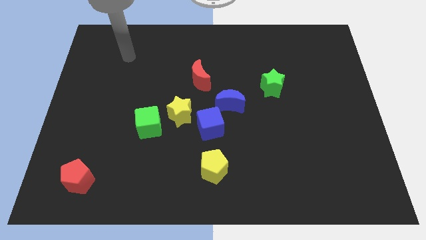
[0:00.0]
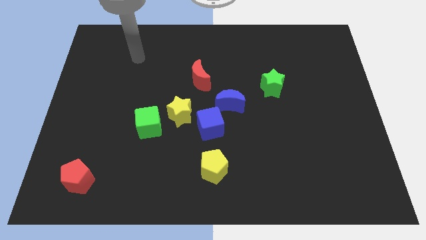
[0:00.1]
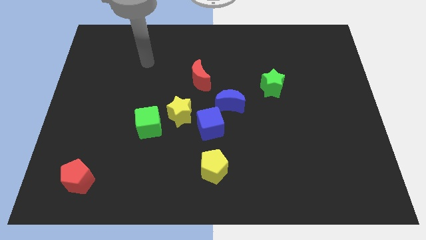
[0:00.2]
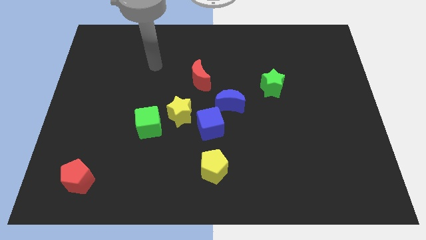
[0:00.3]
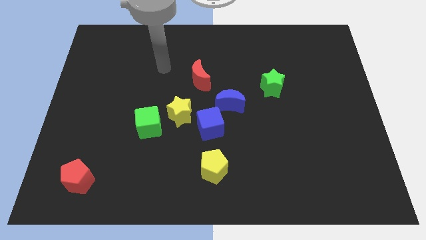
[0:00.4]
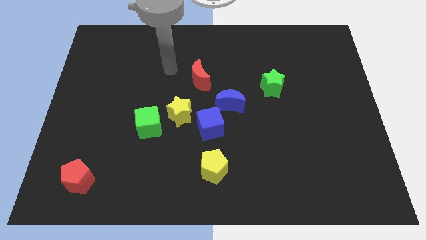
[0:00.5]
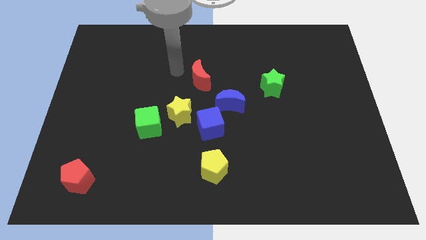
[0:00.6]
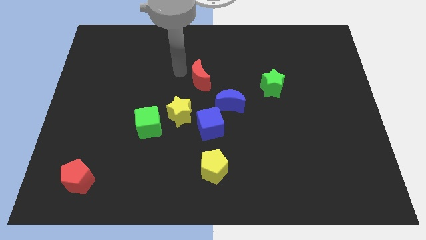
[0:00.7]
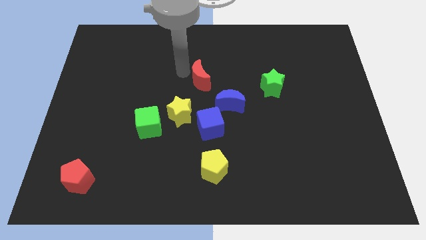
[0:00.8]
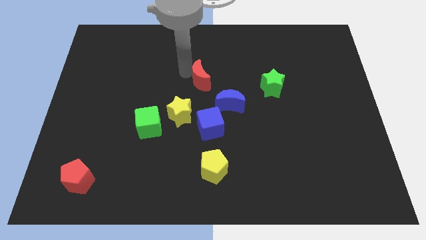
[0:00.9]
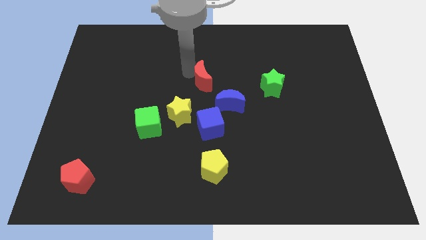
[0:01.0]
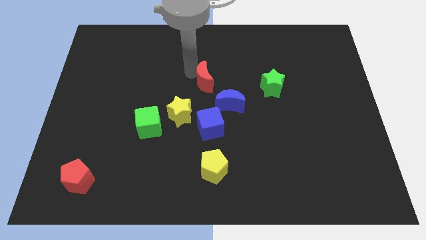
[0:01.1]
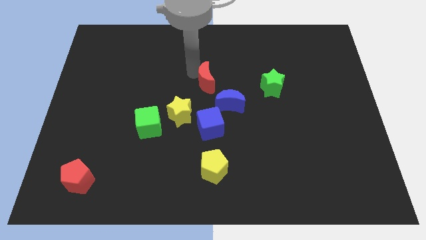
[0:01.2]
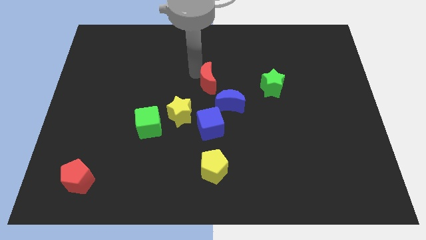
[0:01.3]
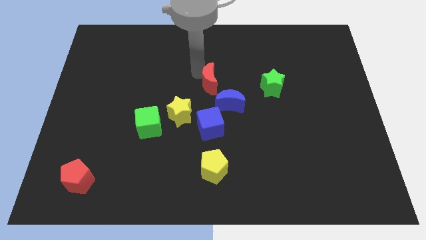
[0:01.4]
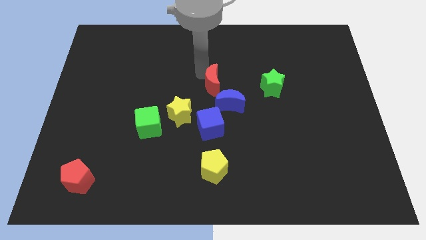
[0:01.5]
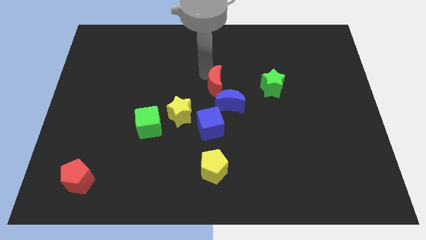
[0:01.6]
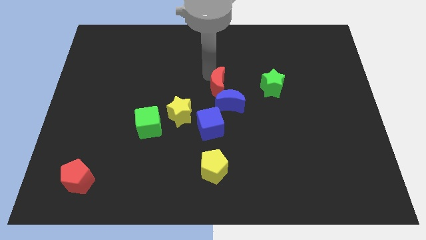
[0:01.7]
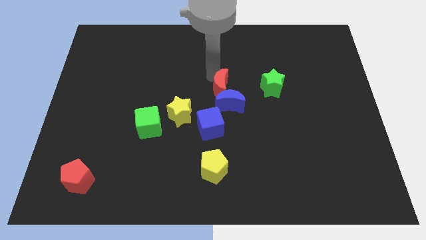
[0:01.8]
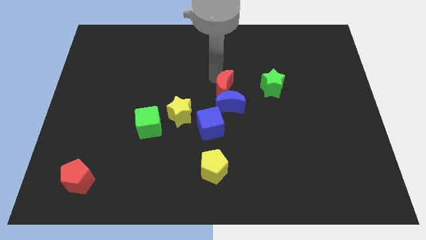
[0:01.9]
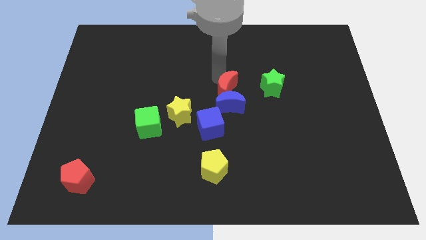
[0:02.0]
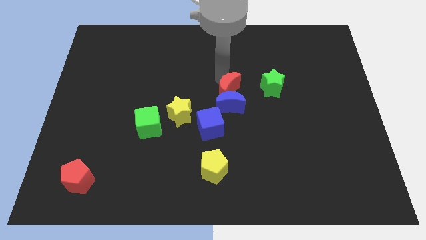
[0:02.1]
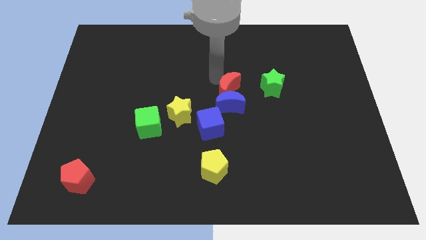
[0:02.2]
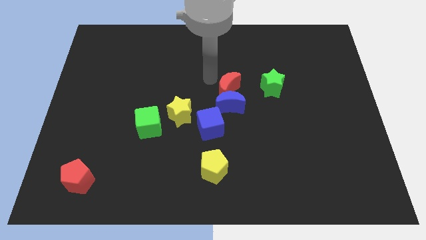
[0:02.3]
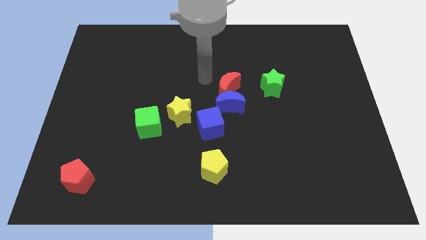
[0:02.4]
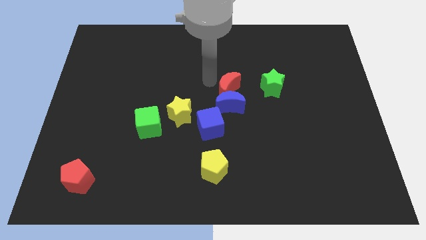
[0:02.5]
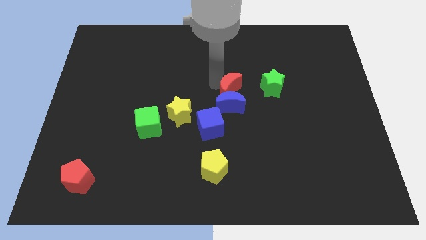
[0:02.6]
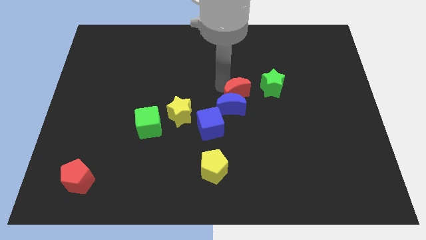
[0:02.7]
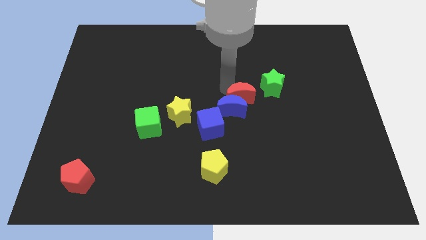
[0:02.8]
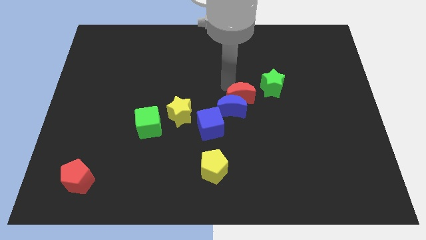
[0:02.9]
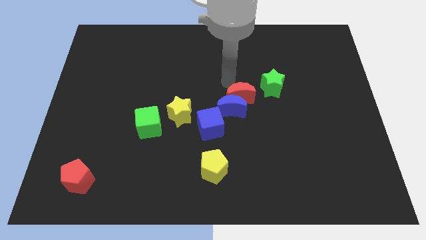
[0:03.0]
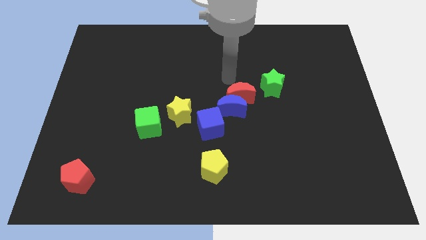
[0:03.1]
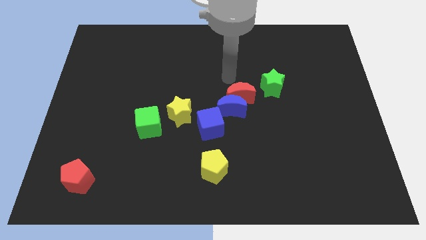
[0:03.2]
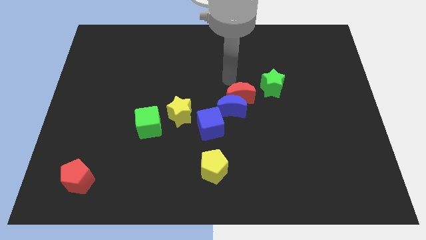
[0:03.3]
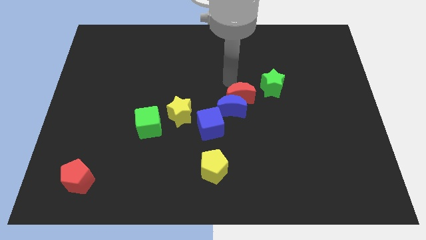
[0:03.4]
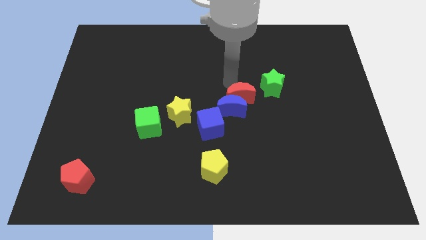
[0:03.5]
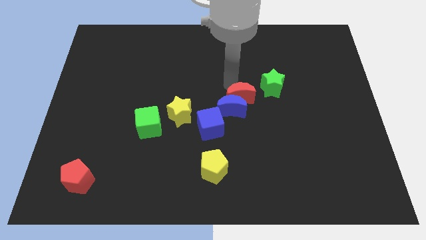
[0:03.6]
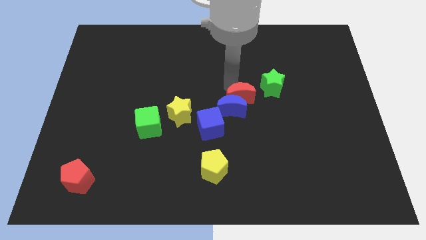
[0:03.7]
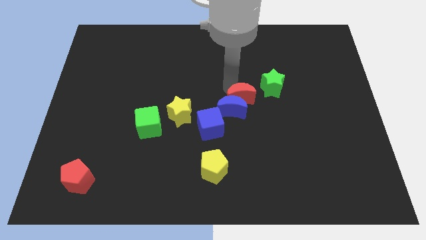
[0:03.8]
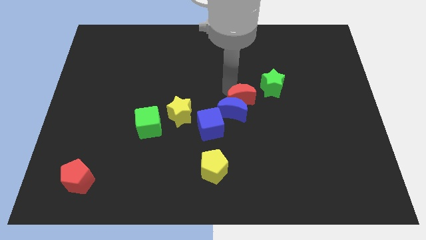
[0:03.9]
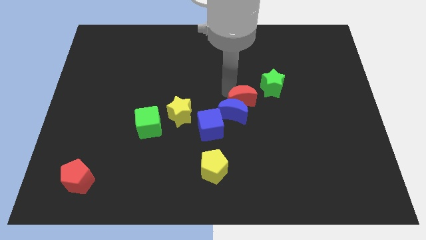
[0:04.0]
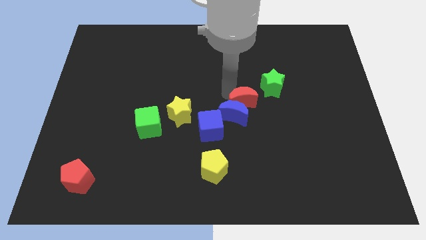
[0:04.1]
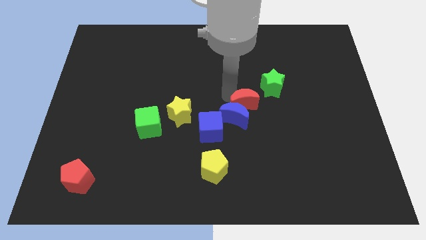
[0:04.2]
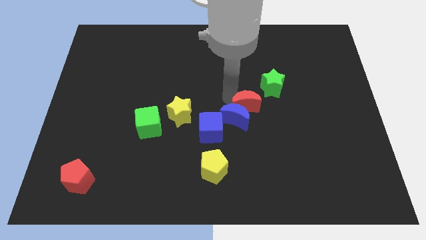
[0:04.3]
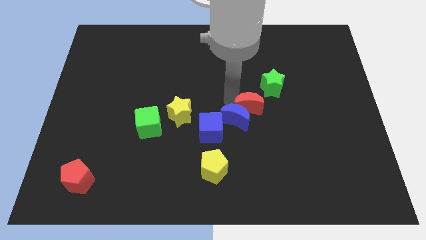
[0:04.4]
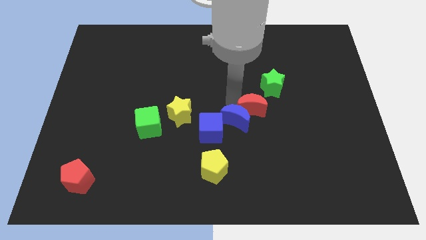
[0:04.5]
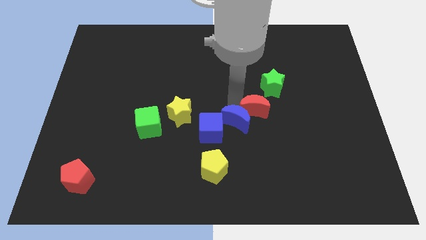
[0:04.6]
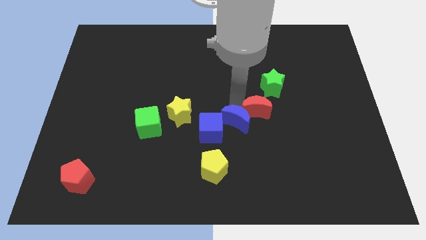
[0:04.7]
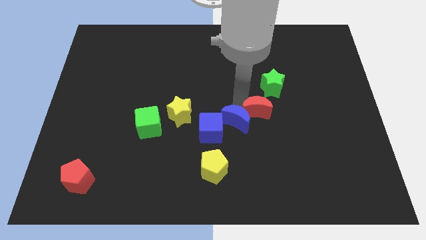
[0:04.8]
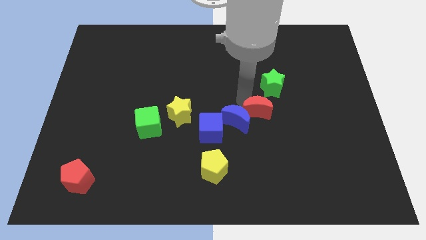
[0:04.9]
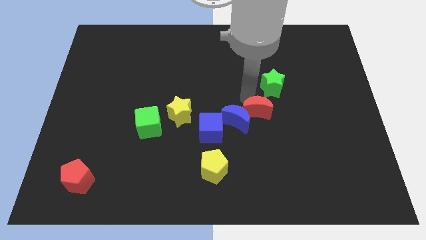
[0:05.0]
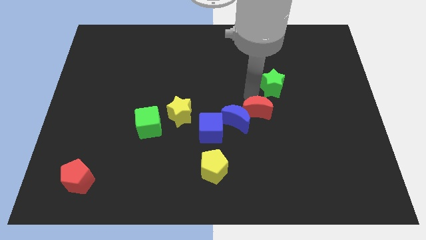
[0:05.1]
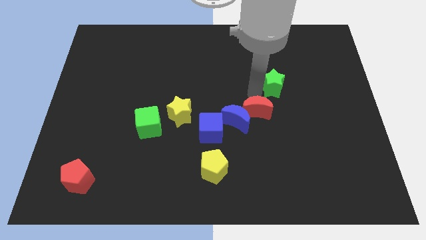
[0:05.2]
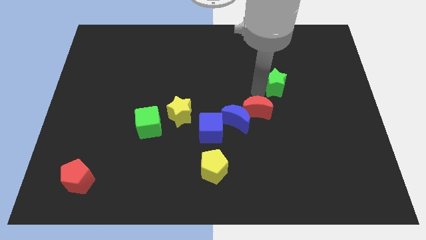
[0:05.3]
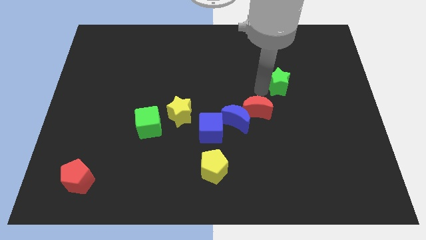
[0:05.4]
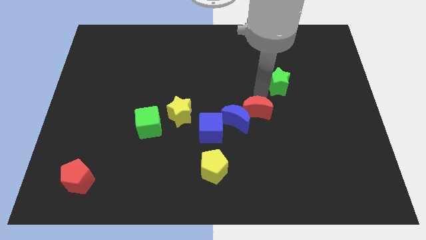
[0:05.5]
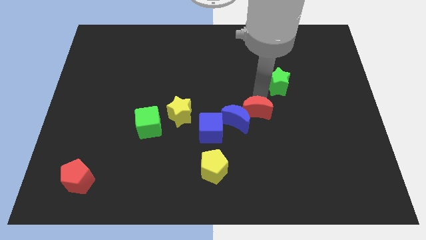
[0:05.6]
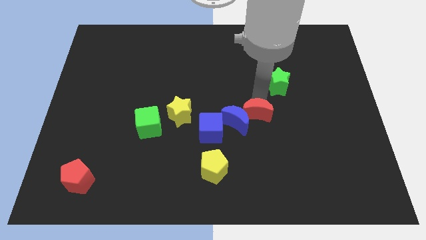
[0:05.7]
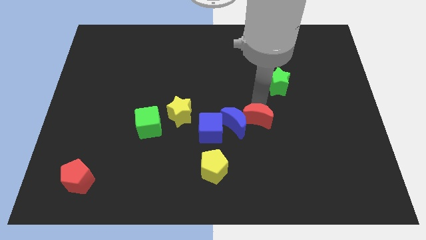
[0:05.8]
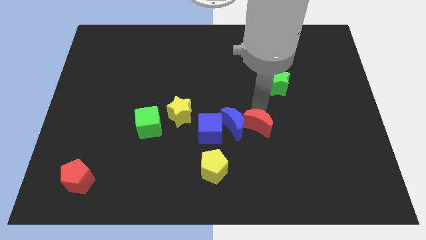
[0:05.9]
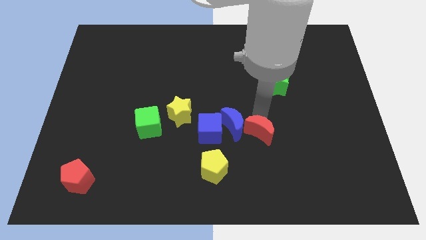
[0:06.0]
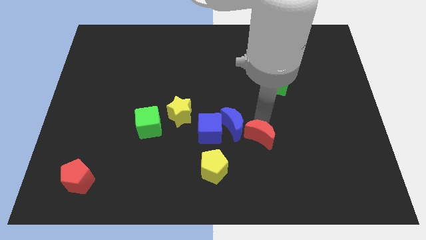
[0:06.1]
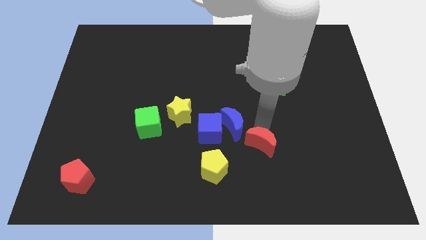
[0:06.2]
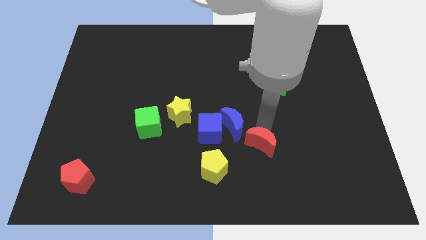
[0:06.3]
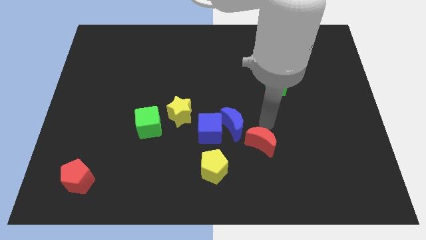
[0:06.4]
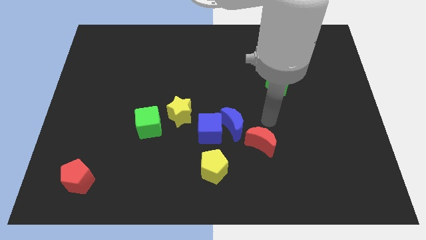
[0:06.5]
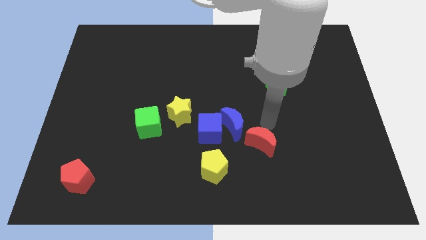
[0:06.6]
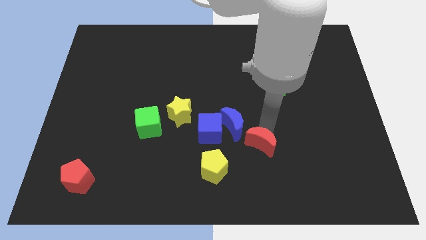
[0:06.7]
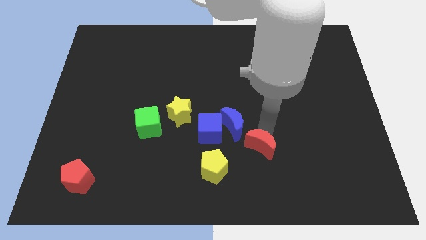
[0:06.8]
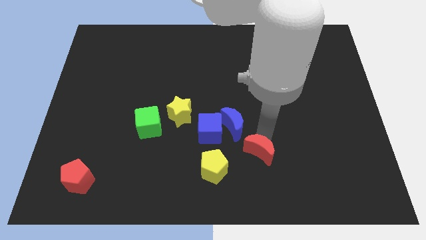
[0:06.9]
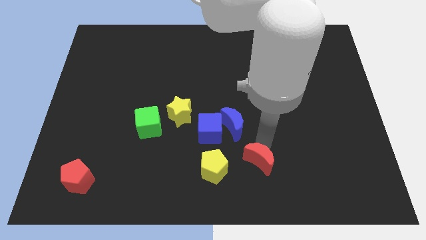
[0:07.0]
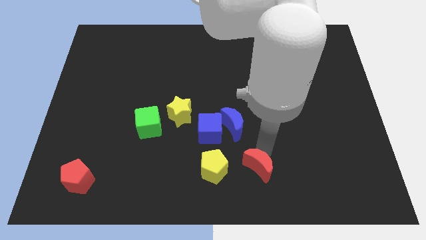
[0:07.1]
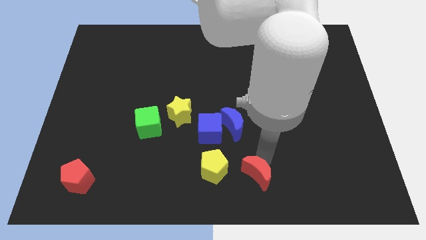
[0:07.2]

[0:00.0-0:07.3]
push the red moon to the bottom
